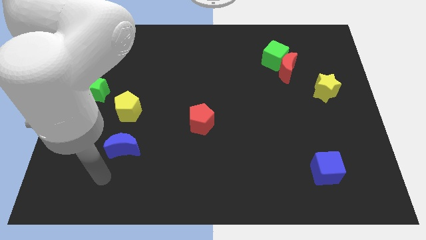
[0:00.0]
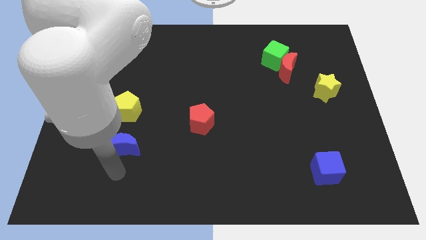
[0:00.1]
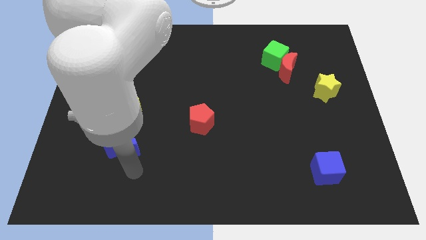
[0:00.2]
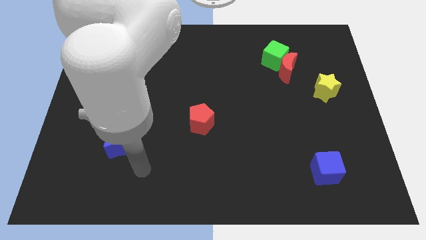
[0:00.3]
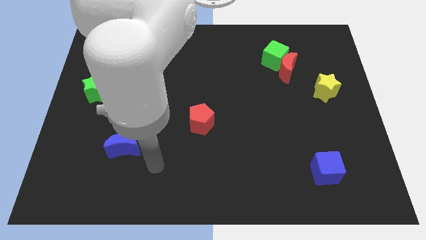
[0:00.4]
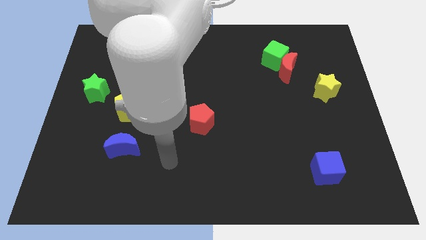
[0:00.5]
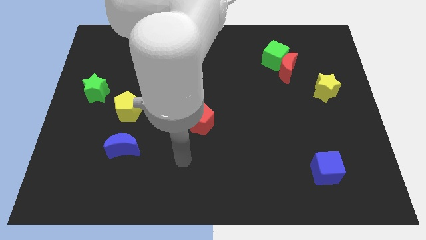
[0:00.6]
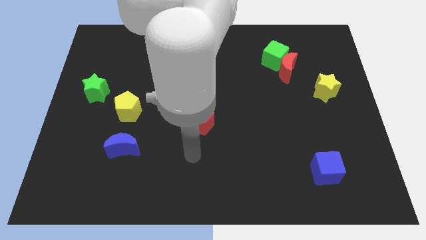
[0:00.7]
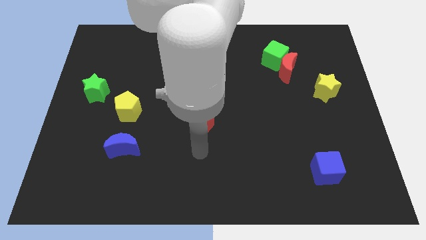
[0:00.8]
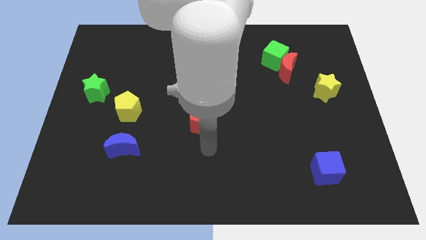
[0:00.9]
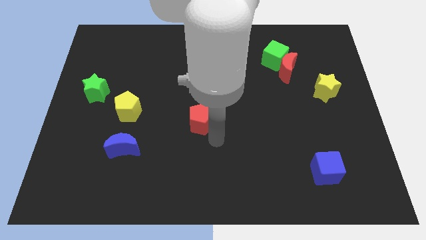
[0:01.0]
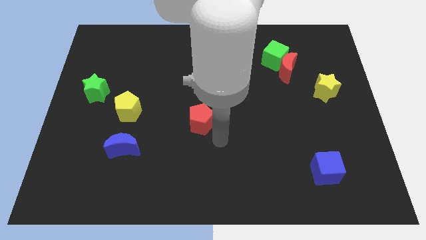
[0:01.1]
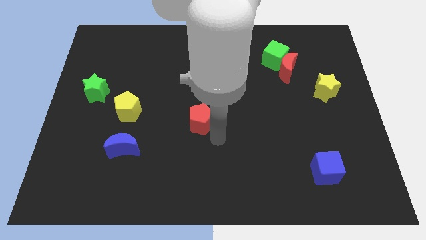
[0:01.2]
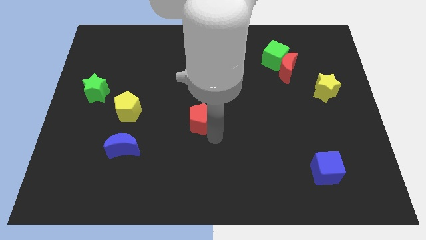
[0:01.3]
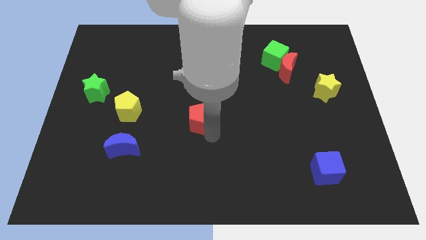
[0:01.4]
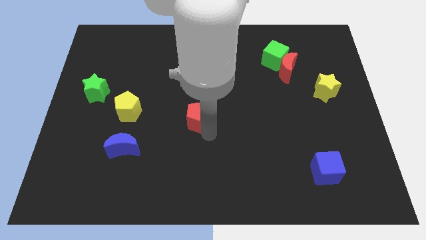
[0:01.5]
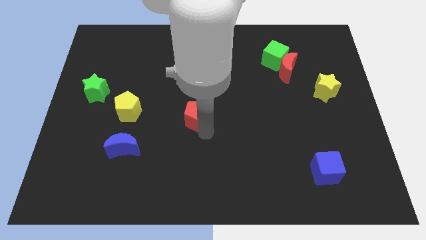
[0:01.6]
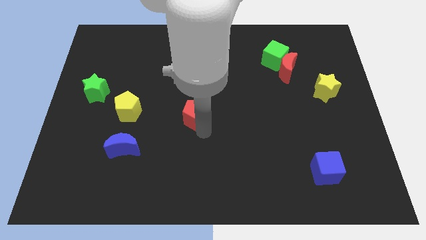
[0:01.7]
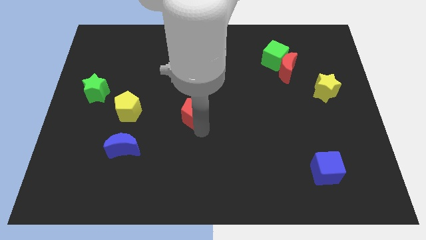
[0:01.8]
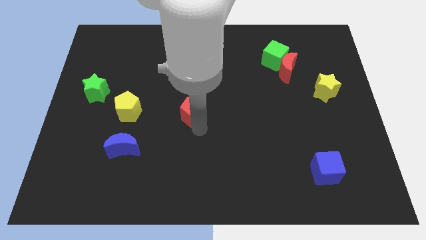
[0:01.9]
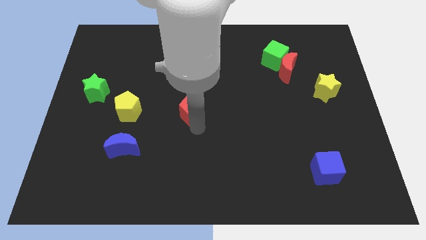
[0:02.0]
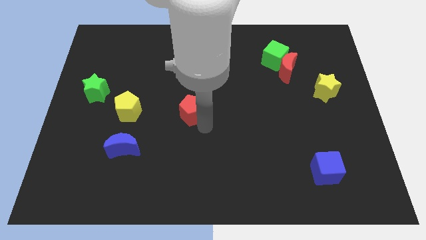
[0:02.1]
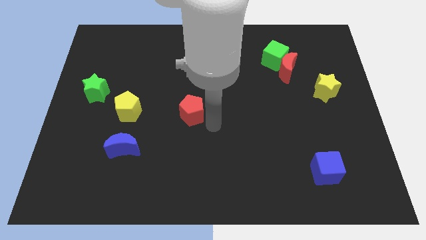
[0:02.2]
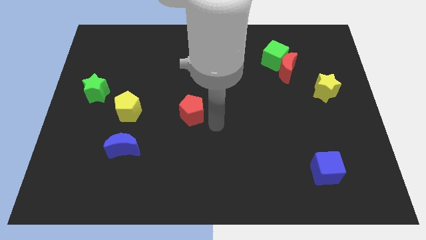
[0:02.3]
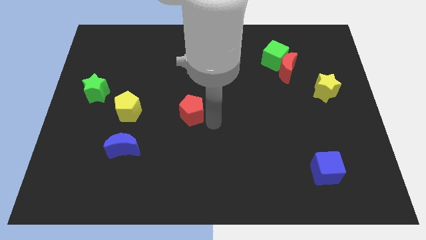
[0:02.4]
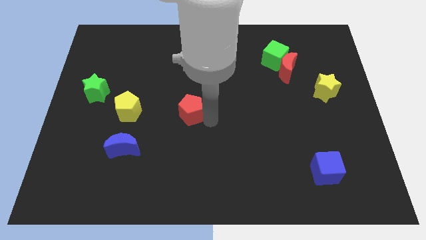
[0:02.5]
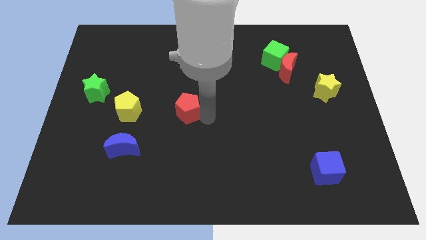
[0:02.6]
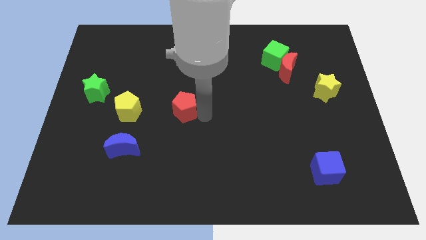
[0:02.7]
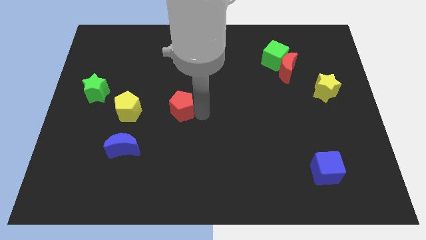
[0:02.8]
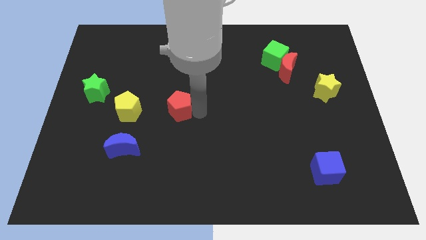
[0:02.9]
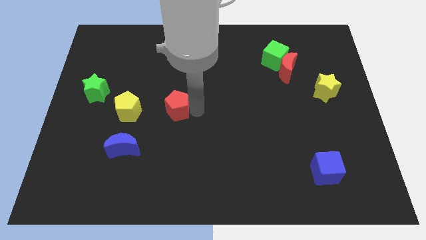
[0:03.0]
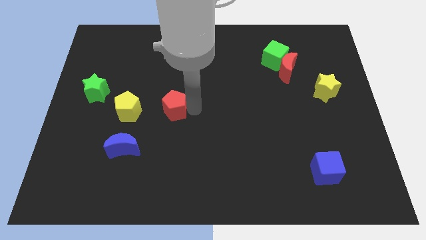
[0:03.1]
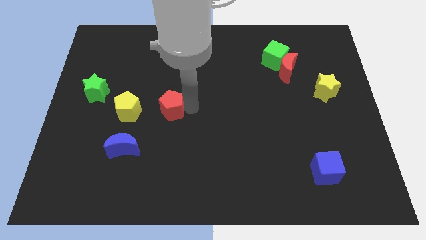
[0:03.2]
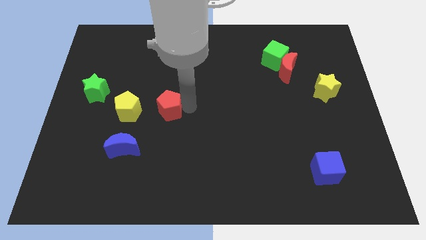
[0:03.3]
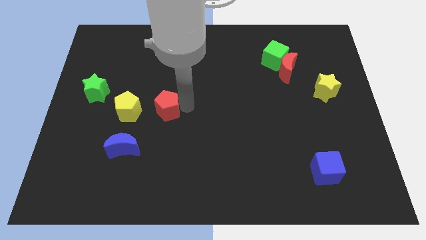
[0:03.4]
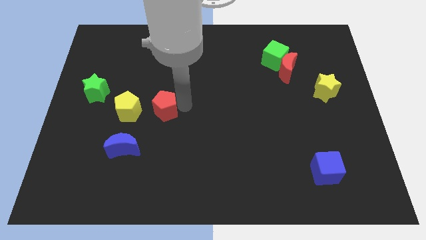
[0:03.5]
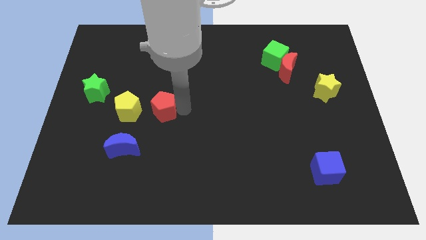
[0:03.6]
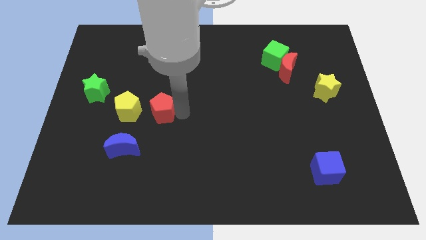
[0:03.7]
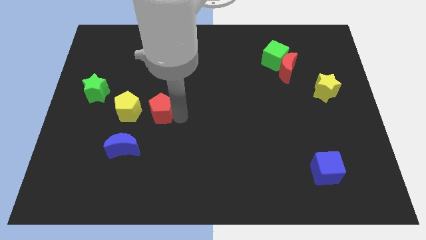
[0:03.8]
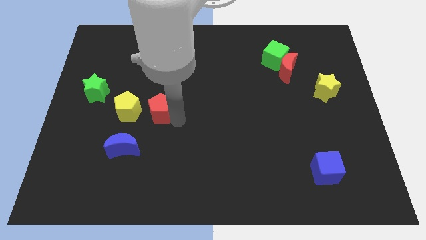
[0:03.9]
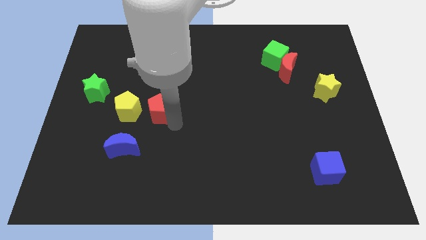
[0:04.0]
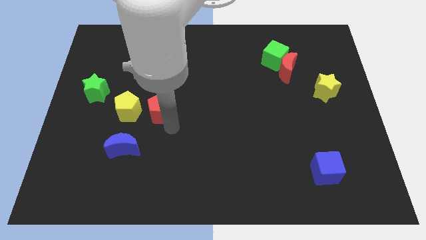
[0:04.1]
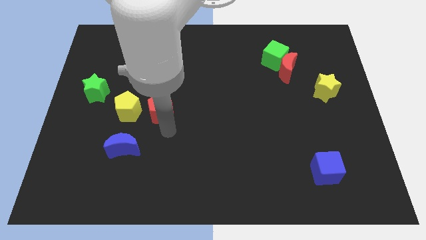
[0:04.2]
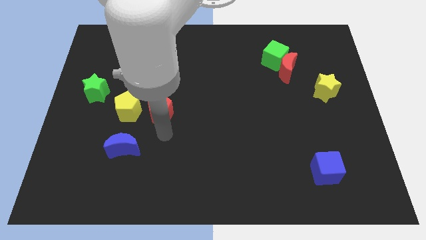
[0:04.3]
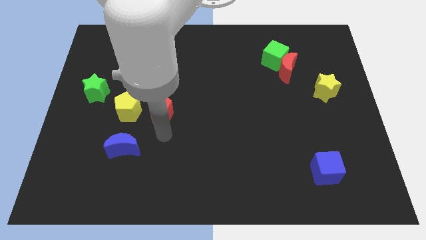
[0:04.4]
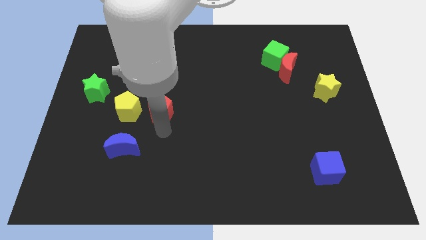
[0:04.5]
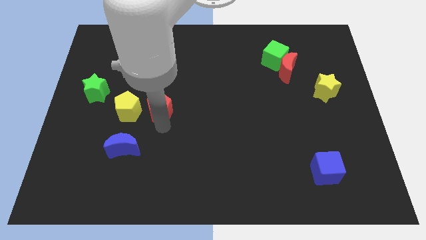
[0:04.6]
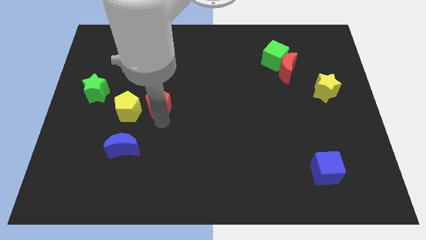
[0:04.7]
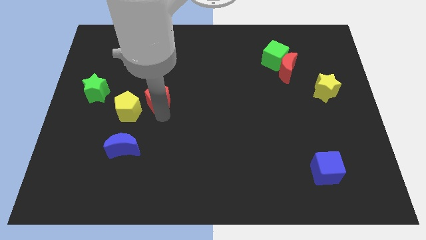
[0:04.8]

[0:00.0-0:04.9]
push the red pentagon to the right side of the green star

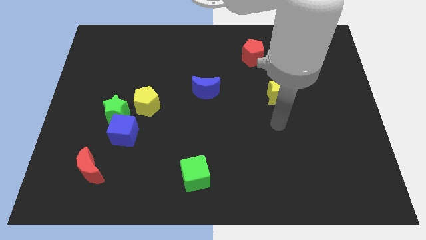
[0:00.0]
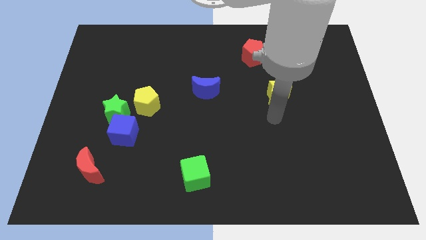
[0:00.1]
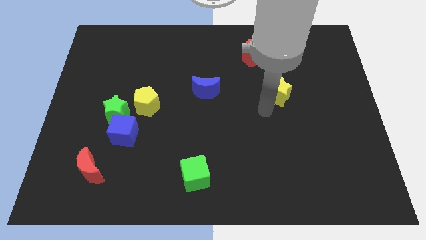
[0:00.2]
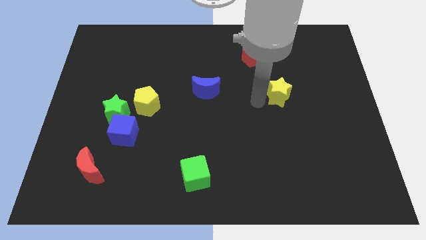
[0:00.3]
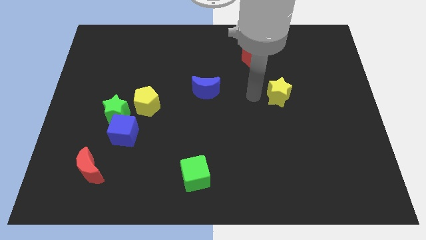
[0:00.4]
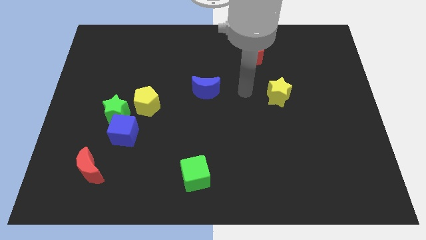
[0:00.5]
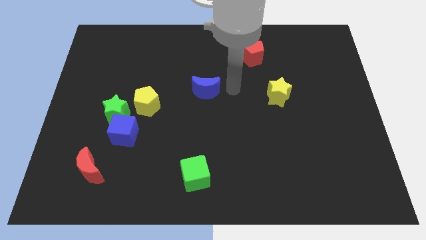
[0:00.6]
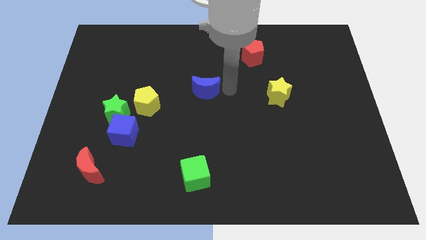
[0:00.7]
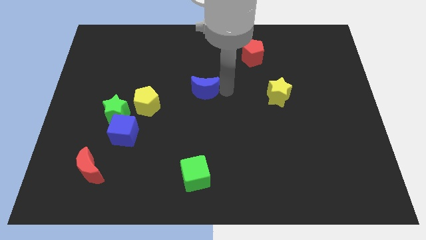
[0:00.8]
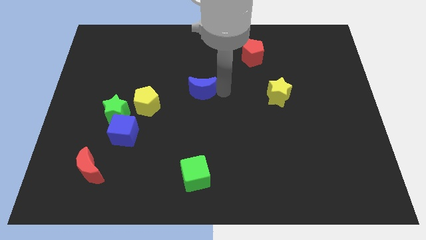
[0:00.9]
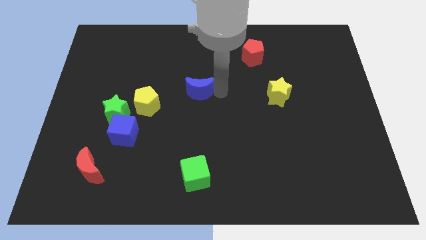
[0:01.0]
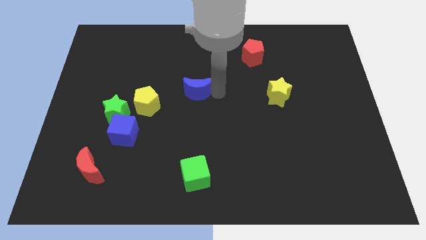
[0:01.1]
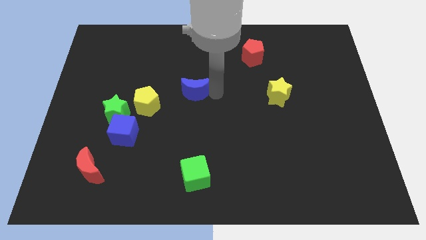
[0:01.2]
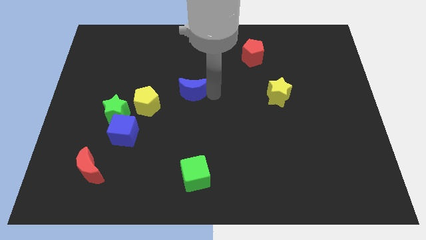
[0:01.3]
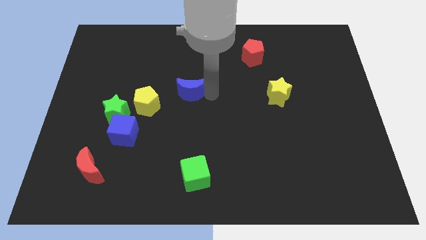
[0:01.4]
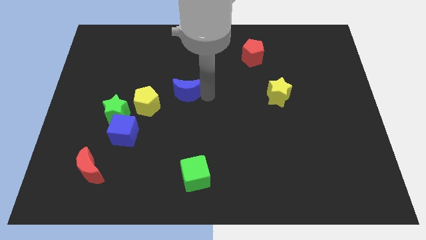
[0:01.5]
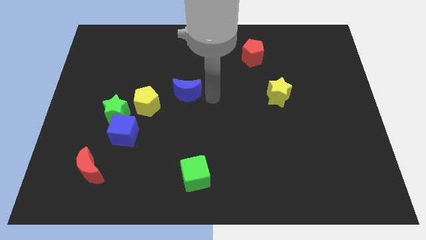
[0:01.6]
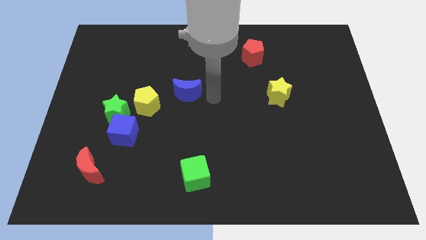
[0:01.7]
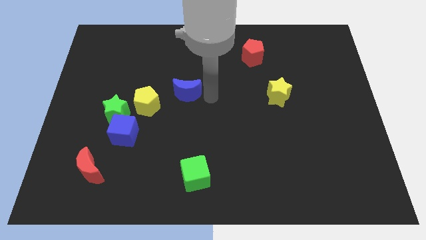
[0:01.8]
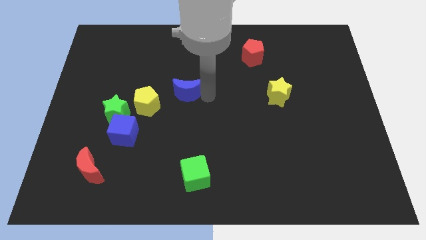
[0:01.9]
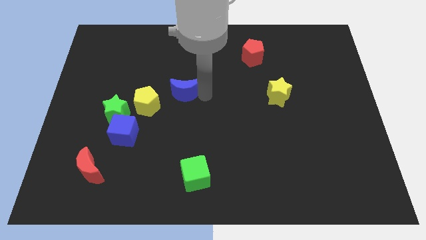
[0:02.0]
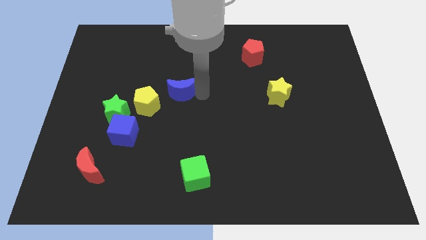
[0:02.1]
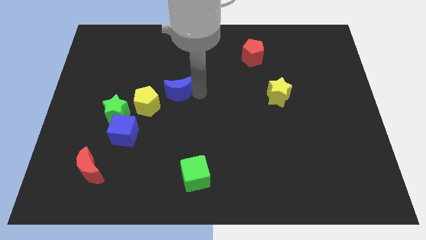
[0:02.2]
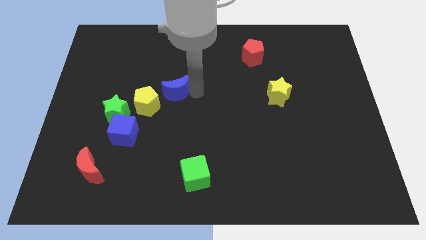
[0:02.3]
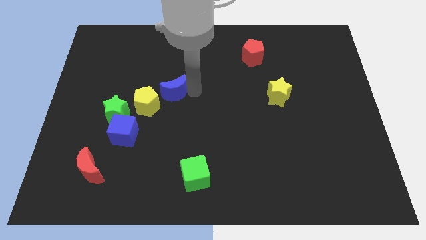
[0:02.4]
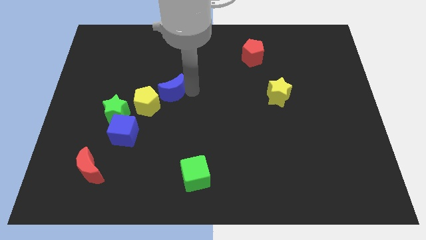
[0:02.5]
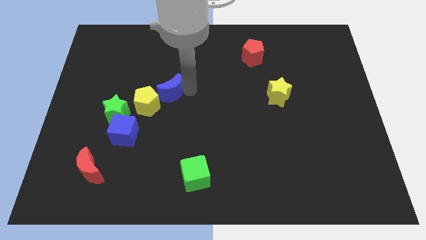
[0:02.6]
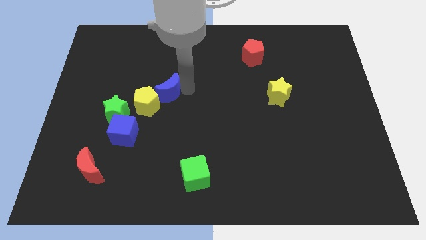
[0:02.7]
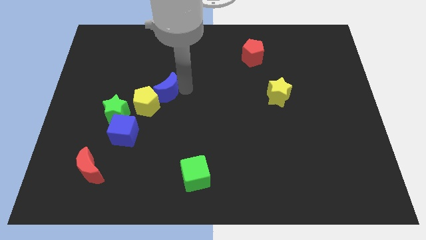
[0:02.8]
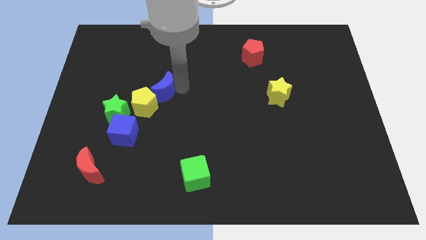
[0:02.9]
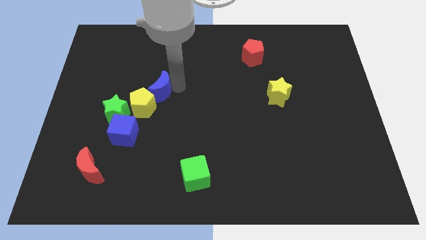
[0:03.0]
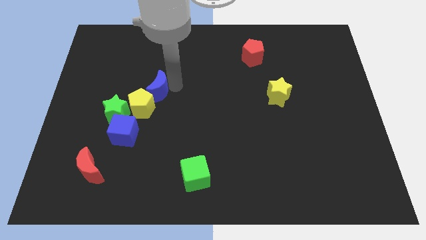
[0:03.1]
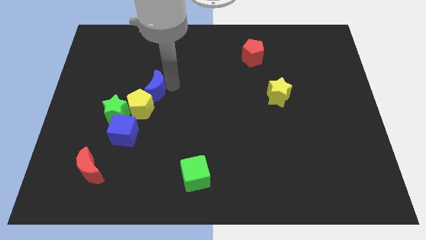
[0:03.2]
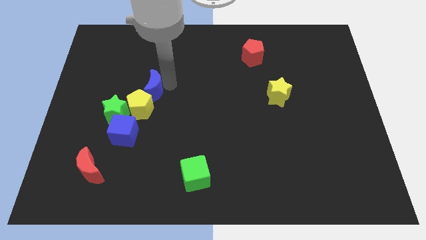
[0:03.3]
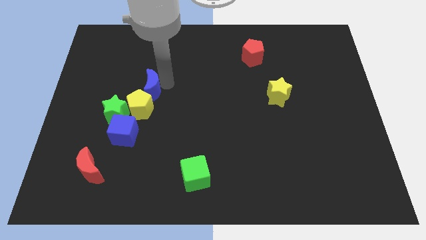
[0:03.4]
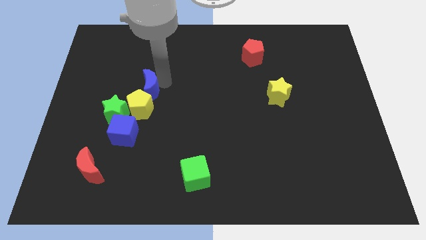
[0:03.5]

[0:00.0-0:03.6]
slide the blue moon to the top side of the blue cube
